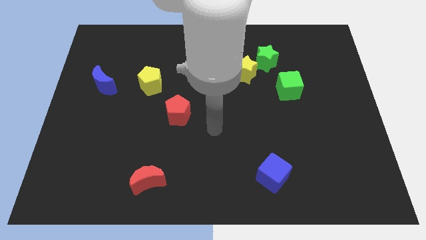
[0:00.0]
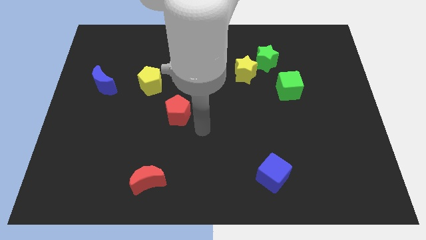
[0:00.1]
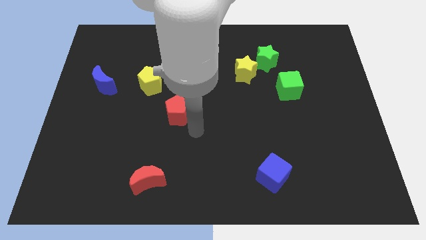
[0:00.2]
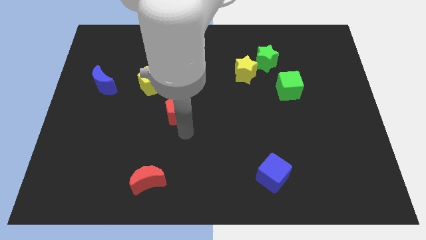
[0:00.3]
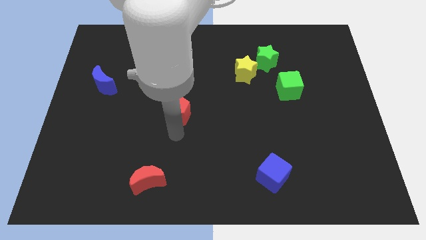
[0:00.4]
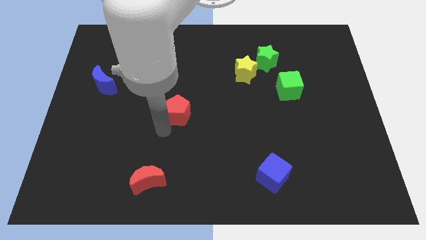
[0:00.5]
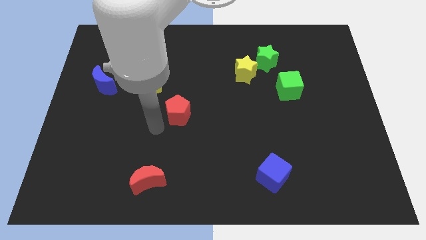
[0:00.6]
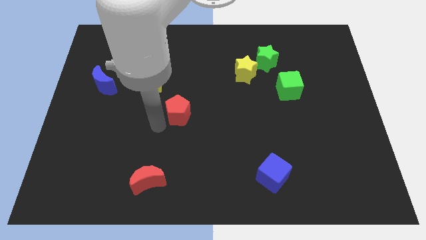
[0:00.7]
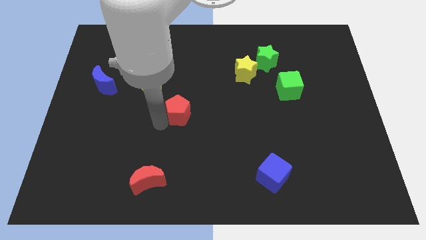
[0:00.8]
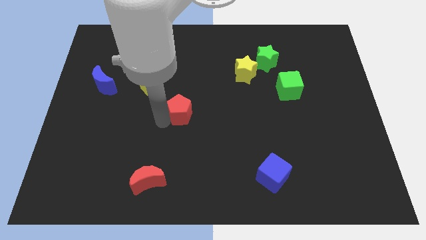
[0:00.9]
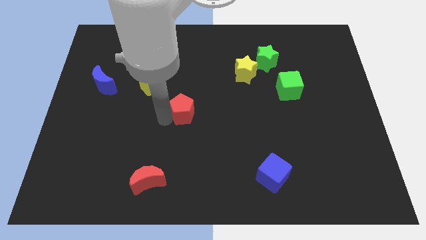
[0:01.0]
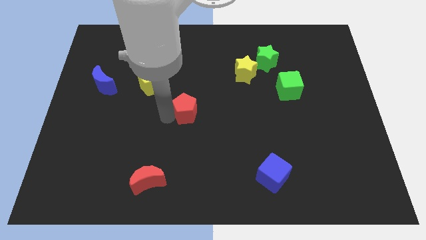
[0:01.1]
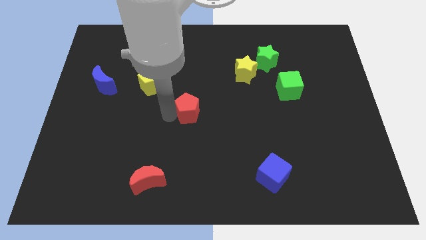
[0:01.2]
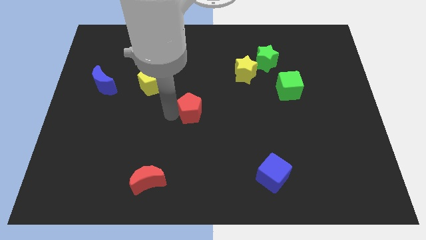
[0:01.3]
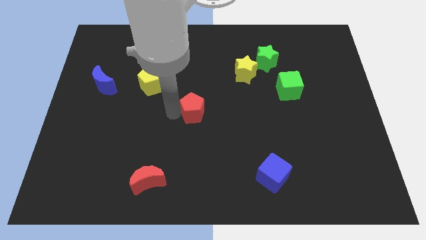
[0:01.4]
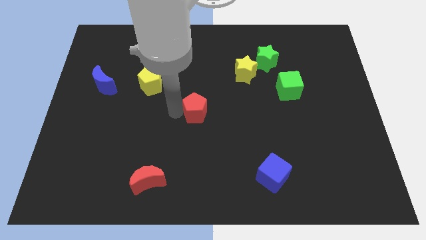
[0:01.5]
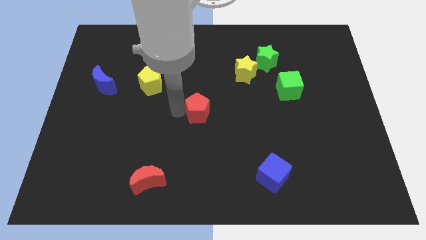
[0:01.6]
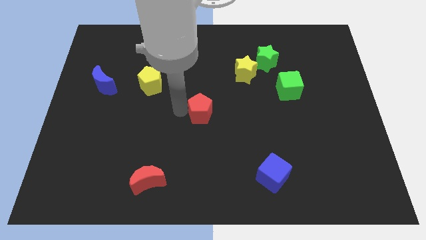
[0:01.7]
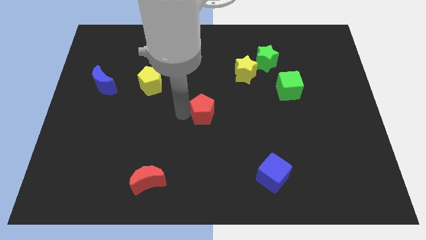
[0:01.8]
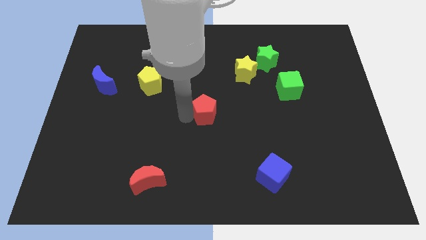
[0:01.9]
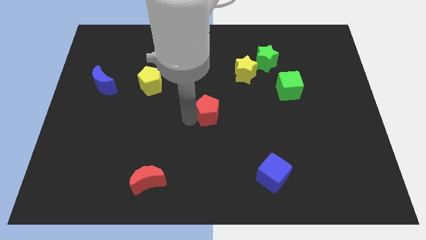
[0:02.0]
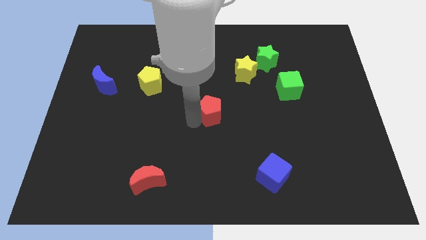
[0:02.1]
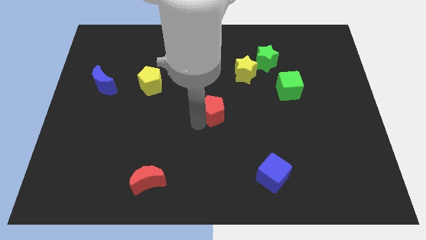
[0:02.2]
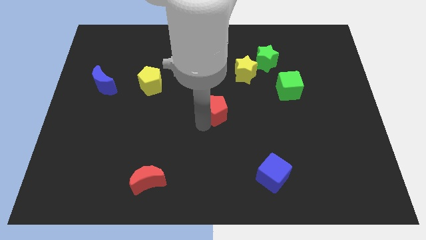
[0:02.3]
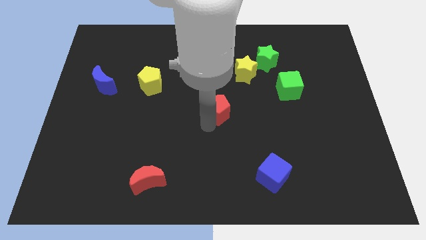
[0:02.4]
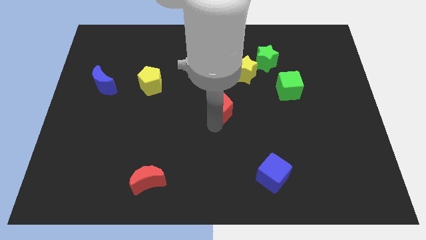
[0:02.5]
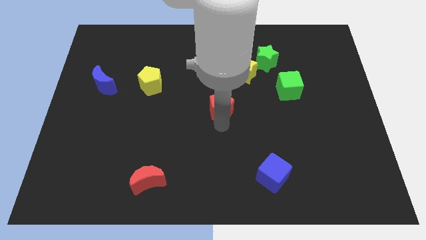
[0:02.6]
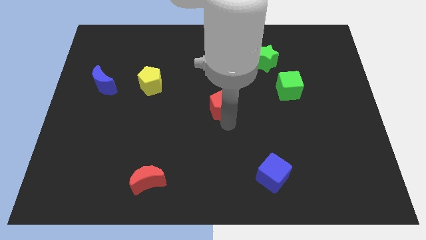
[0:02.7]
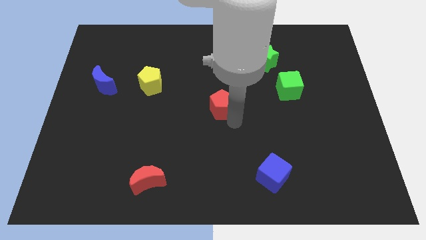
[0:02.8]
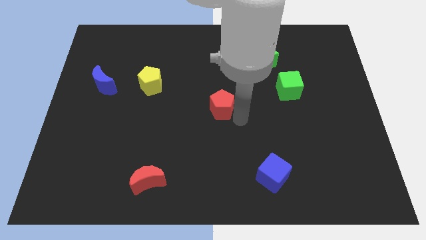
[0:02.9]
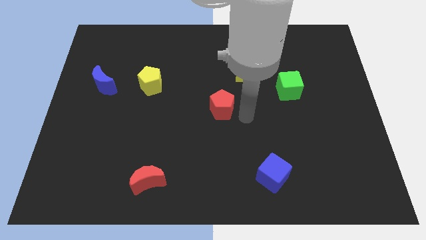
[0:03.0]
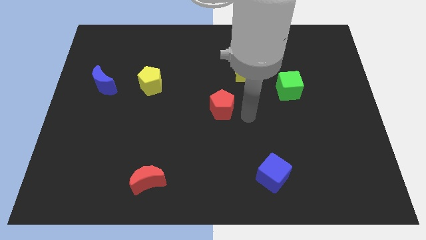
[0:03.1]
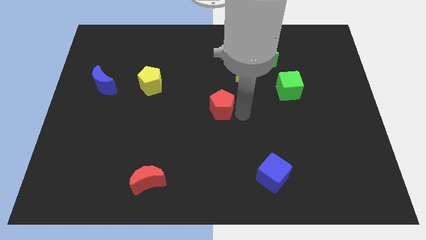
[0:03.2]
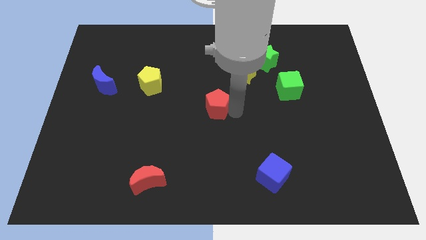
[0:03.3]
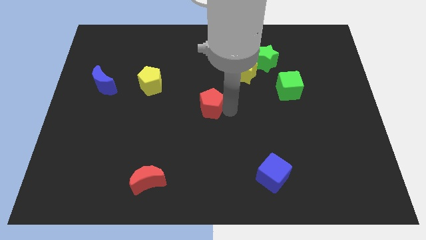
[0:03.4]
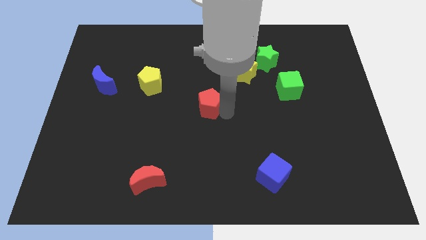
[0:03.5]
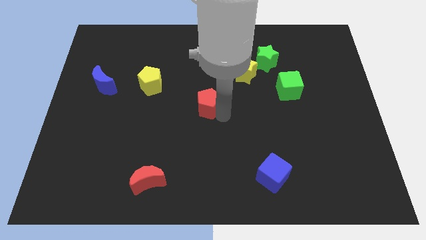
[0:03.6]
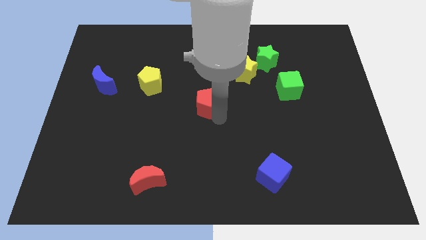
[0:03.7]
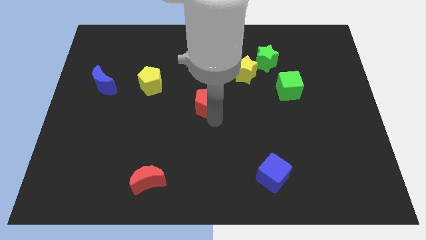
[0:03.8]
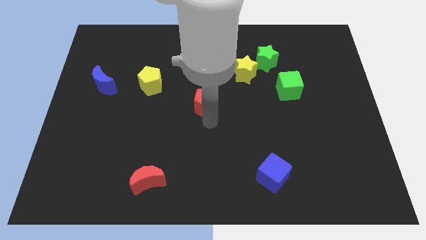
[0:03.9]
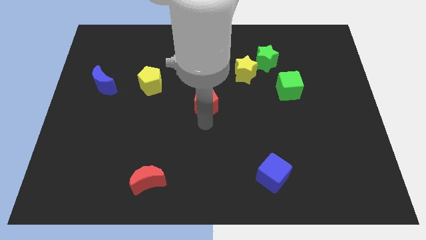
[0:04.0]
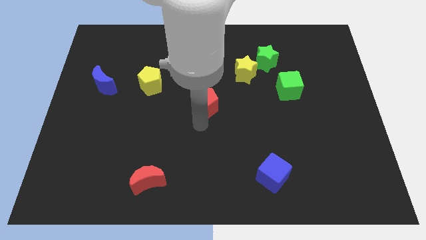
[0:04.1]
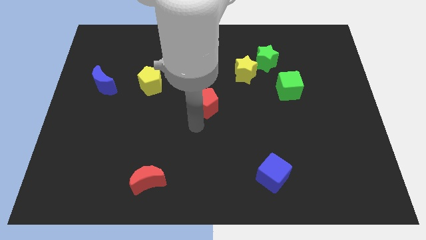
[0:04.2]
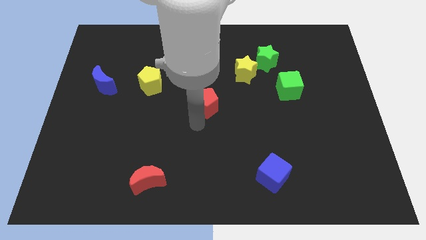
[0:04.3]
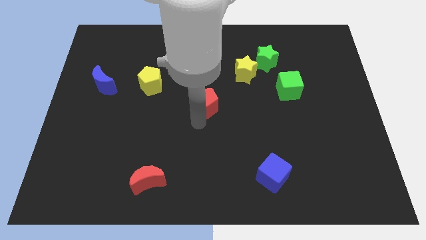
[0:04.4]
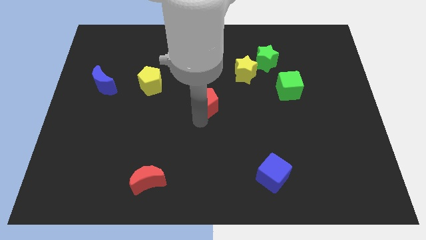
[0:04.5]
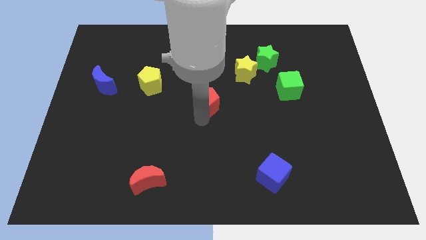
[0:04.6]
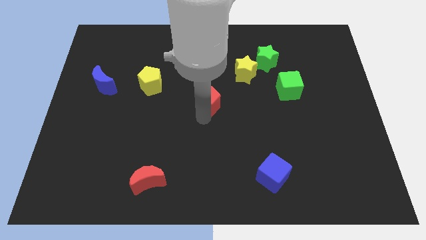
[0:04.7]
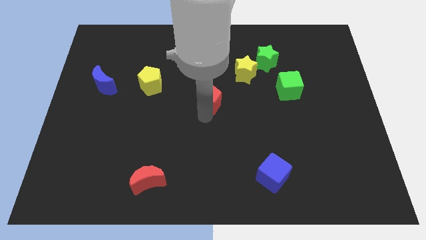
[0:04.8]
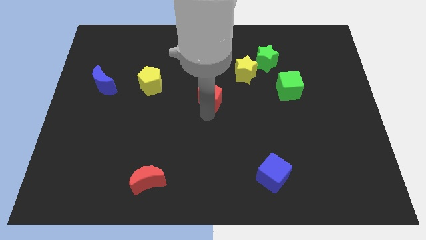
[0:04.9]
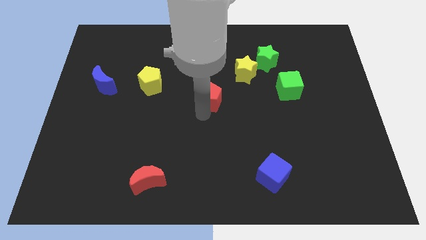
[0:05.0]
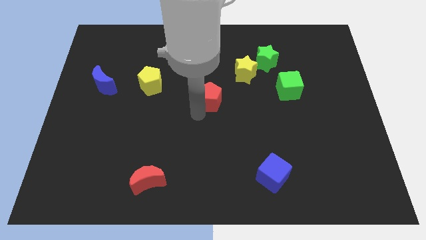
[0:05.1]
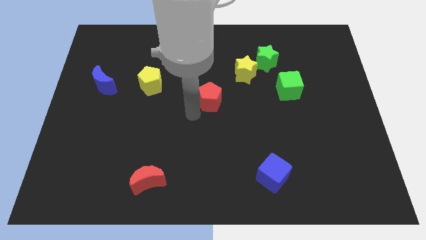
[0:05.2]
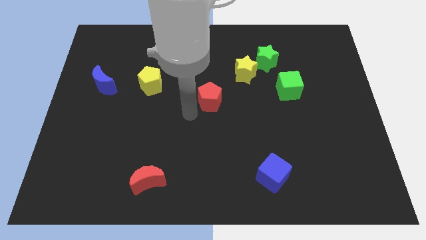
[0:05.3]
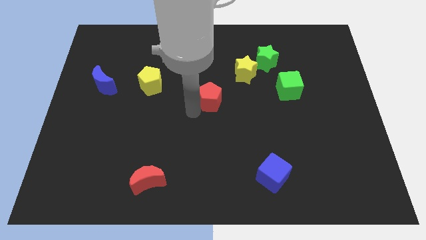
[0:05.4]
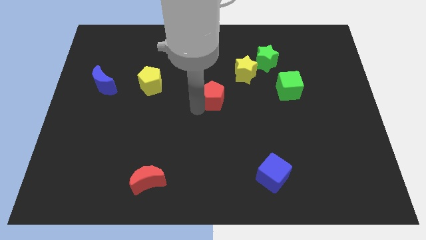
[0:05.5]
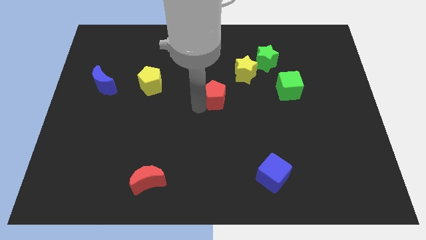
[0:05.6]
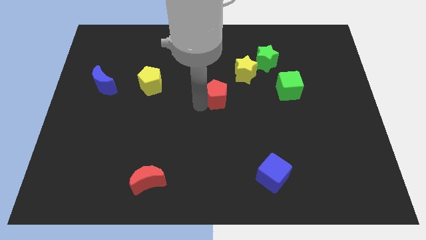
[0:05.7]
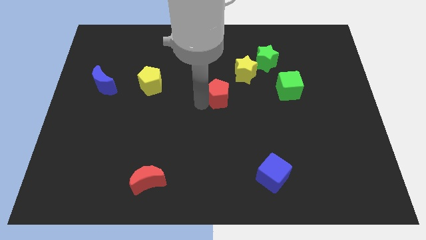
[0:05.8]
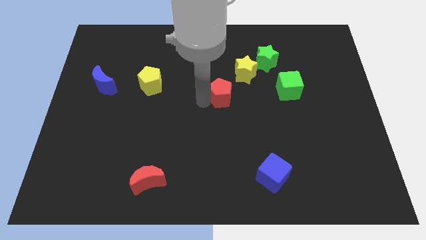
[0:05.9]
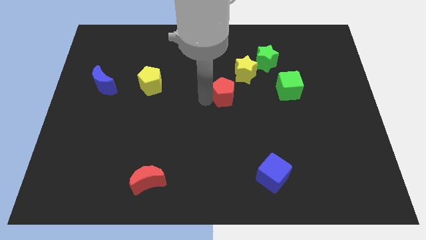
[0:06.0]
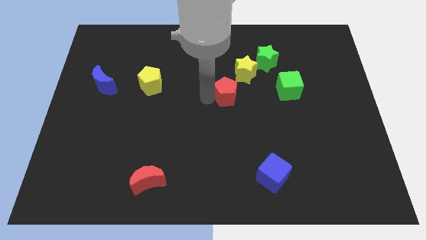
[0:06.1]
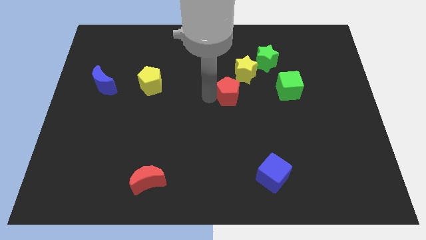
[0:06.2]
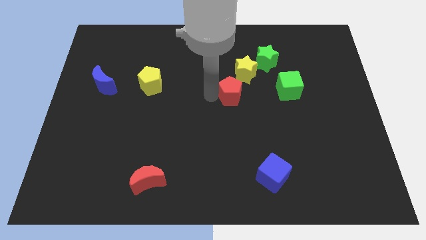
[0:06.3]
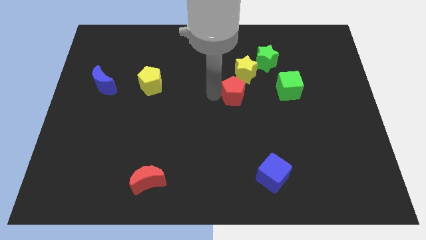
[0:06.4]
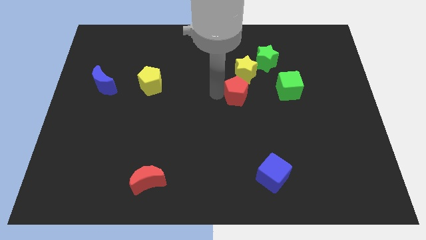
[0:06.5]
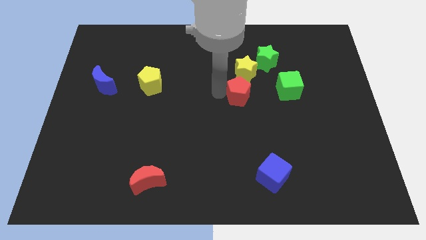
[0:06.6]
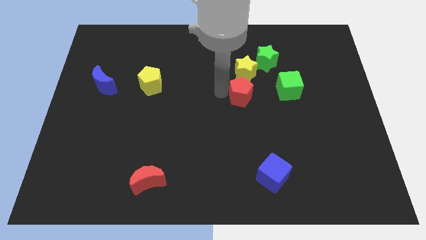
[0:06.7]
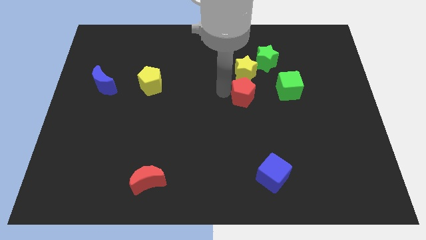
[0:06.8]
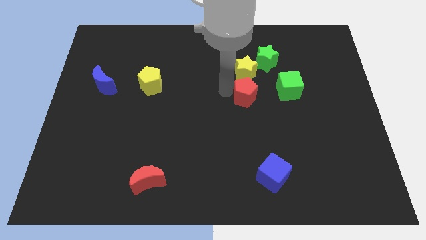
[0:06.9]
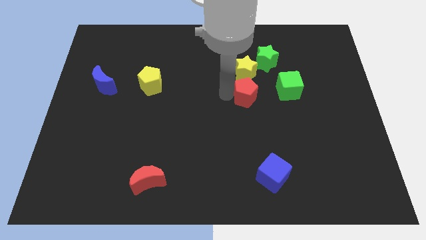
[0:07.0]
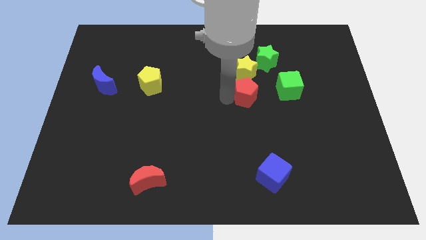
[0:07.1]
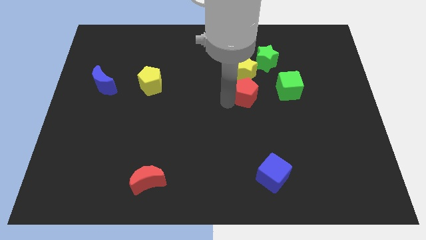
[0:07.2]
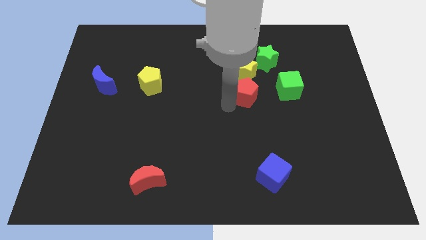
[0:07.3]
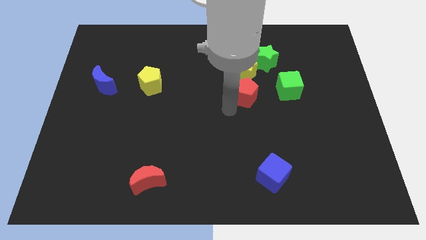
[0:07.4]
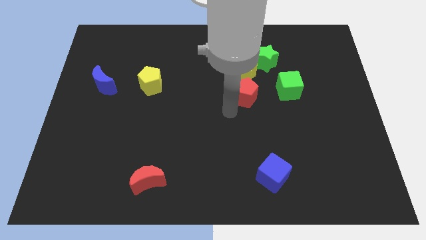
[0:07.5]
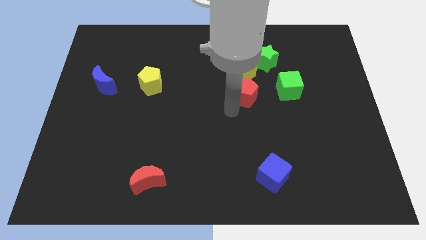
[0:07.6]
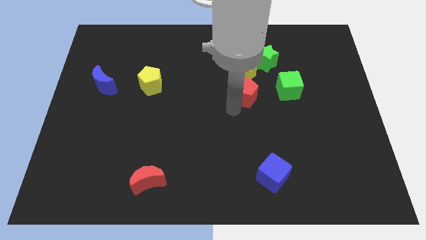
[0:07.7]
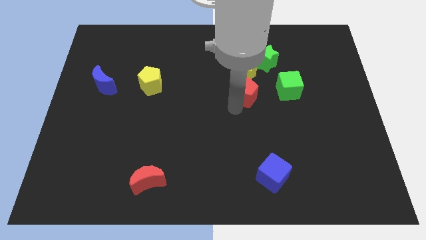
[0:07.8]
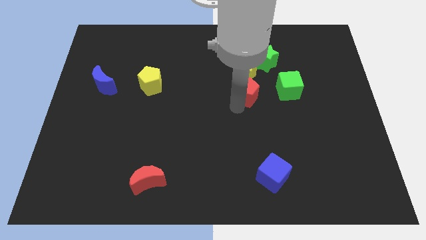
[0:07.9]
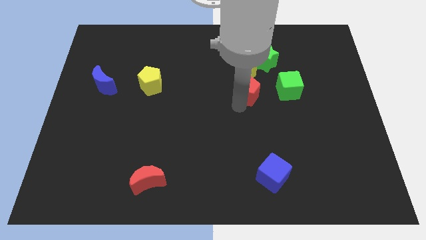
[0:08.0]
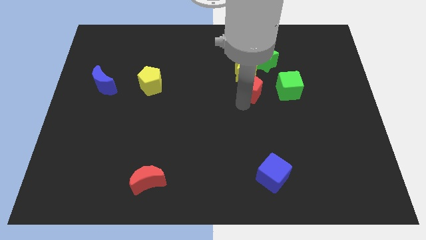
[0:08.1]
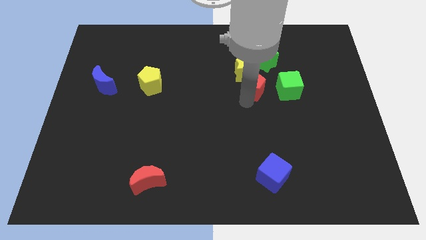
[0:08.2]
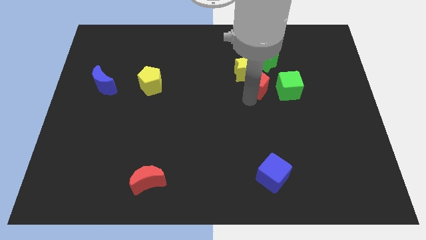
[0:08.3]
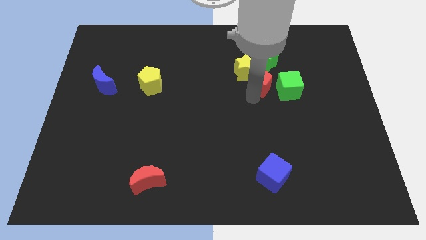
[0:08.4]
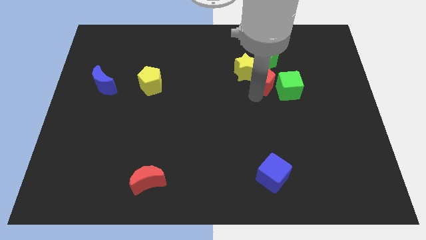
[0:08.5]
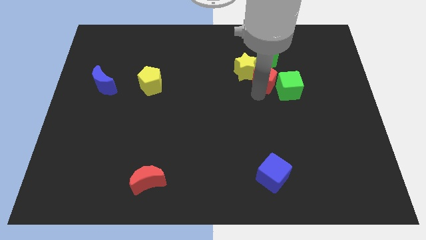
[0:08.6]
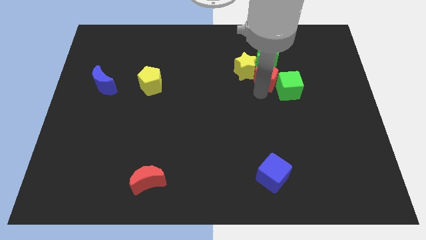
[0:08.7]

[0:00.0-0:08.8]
push the red pentagon next to the green star
